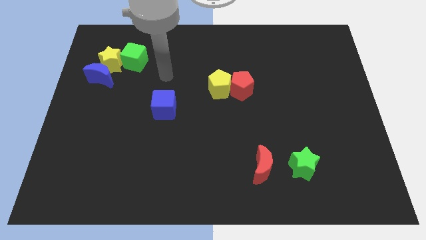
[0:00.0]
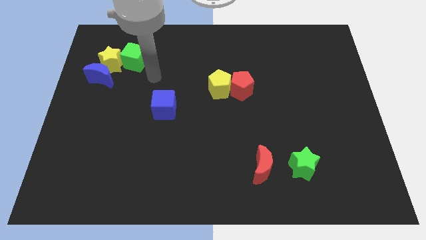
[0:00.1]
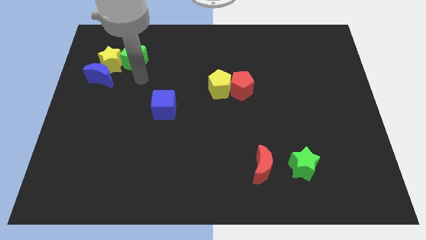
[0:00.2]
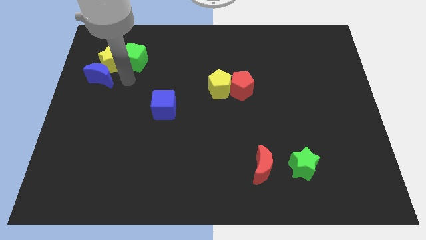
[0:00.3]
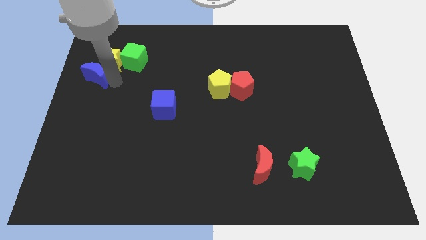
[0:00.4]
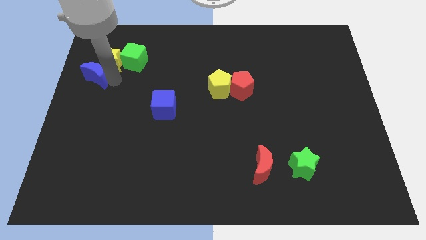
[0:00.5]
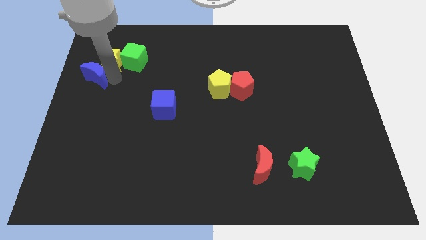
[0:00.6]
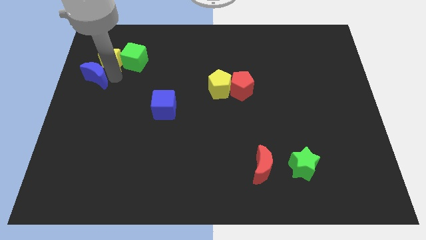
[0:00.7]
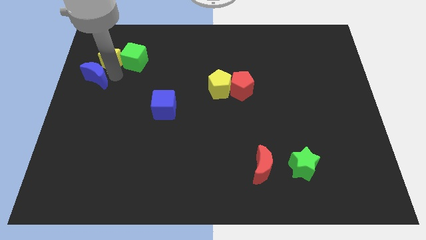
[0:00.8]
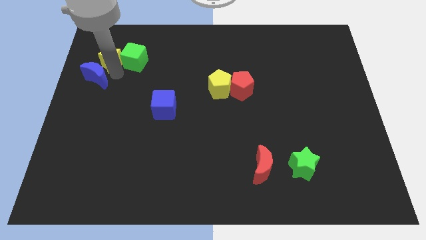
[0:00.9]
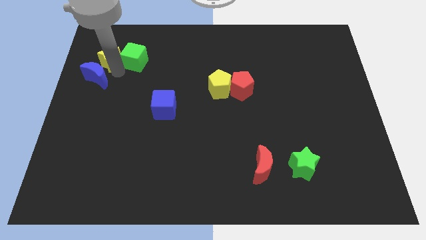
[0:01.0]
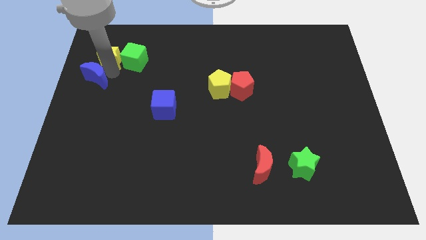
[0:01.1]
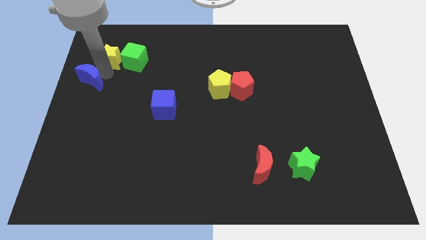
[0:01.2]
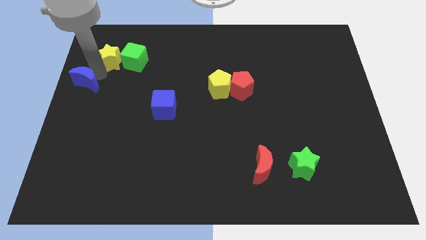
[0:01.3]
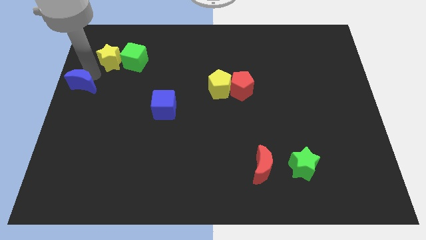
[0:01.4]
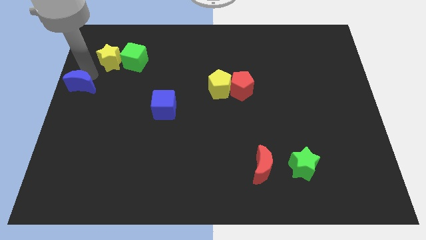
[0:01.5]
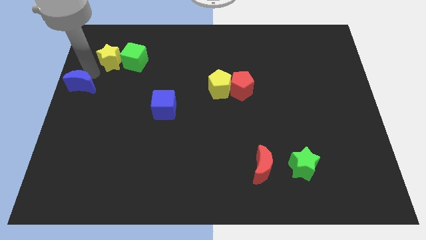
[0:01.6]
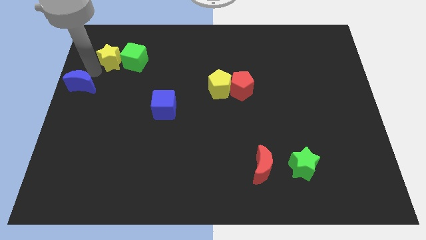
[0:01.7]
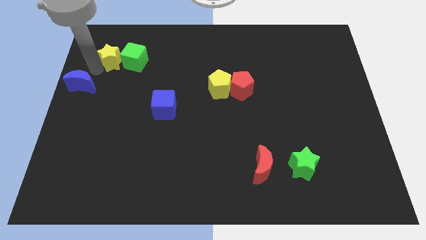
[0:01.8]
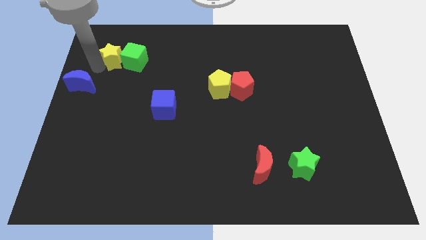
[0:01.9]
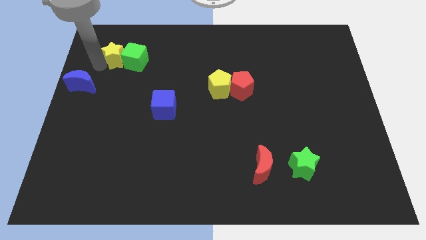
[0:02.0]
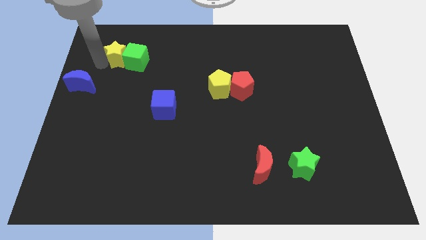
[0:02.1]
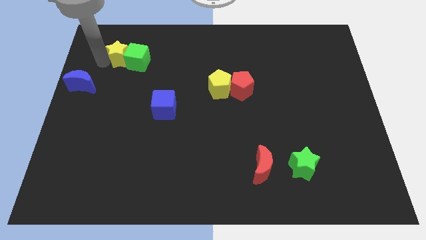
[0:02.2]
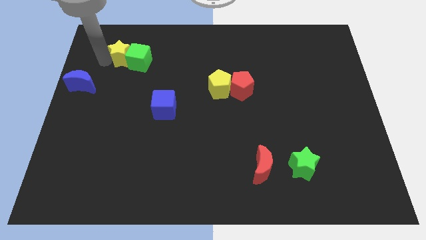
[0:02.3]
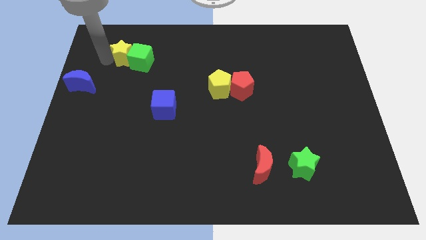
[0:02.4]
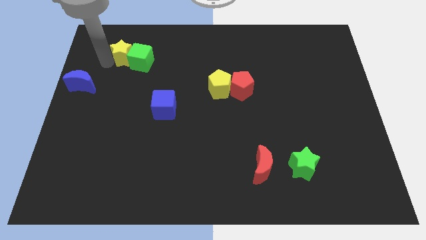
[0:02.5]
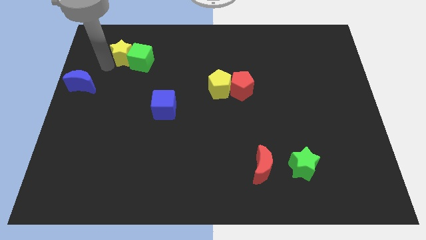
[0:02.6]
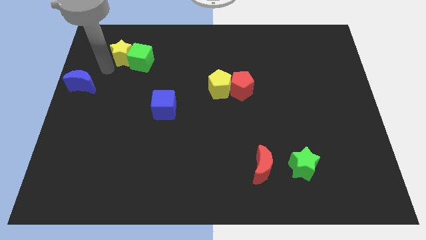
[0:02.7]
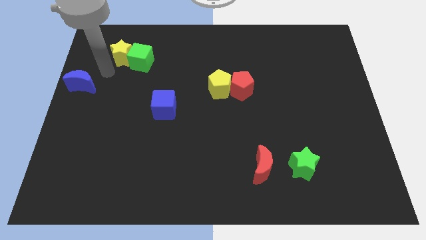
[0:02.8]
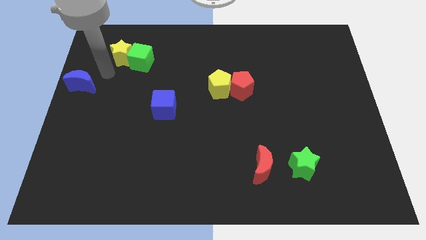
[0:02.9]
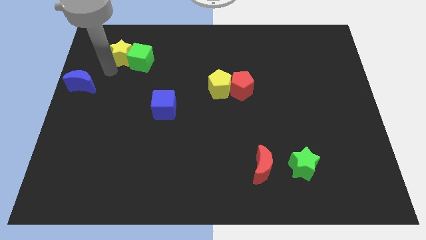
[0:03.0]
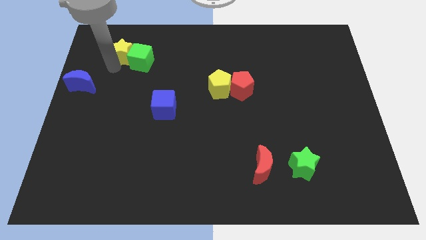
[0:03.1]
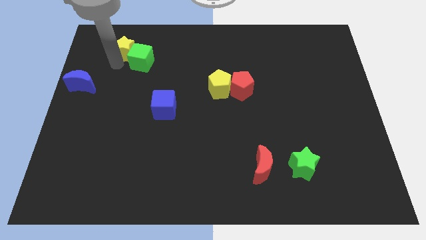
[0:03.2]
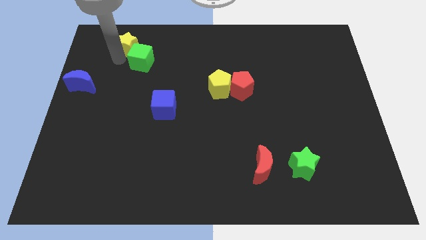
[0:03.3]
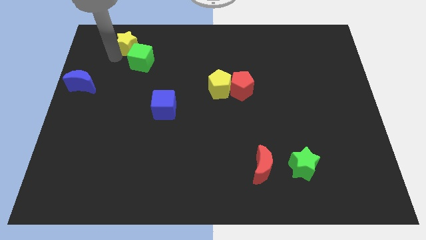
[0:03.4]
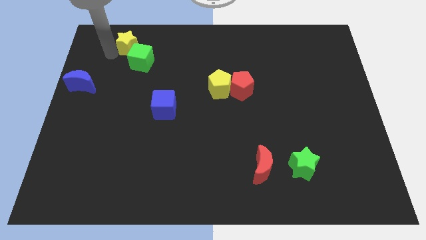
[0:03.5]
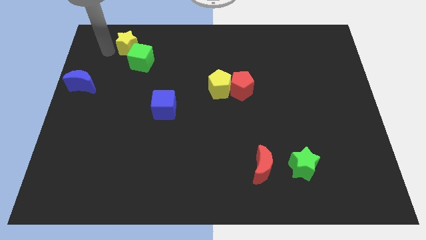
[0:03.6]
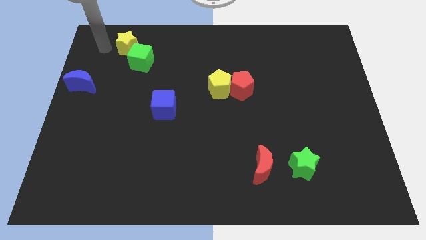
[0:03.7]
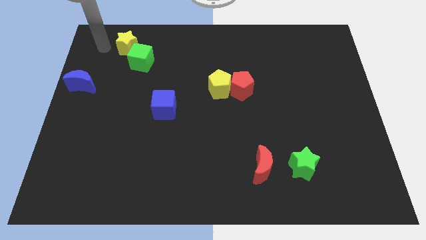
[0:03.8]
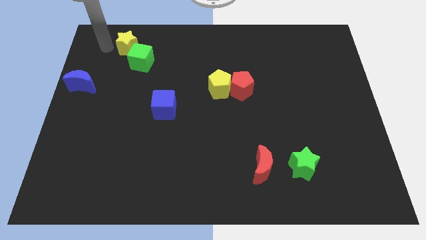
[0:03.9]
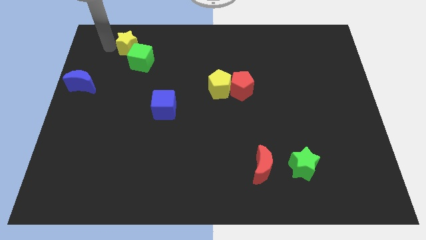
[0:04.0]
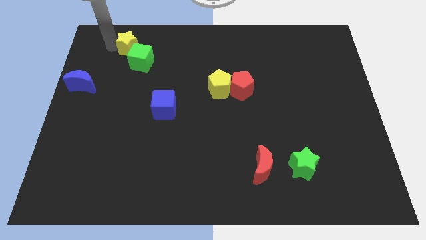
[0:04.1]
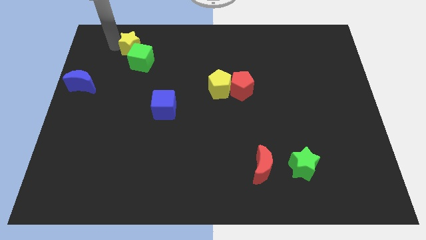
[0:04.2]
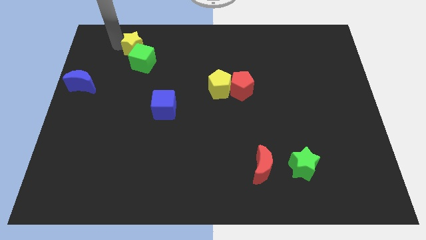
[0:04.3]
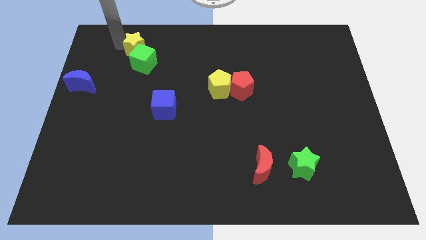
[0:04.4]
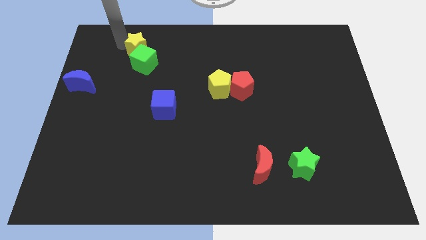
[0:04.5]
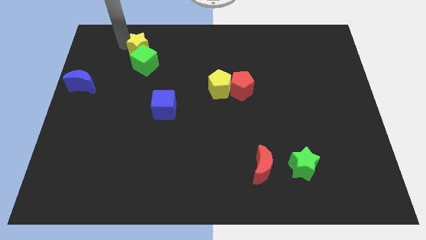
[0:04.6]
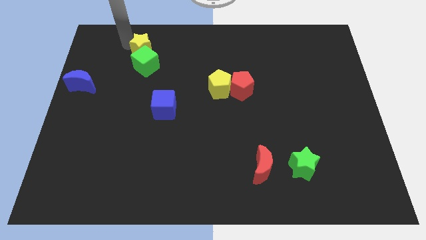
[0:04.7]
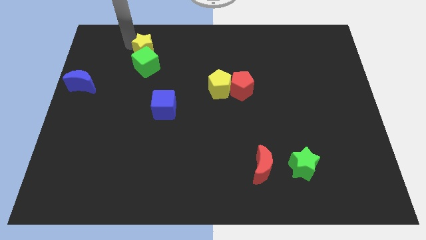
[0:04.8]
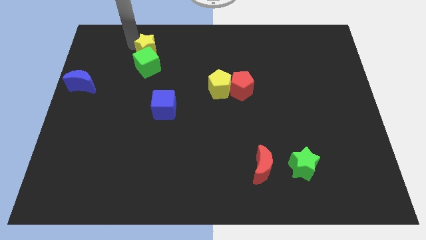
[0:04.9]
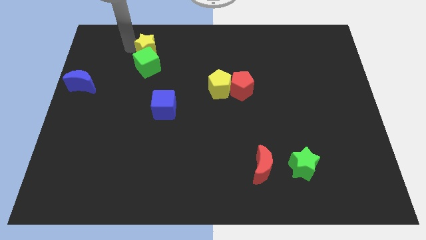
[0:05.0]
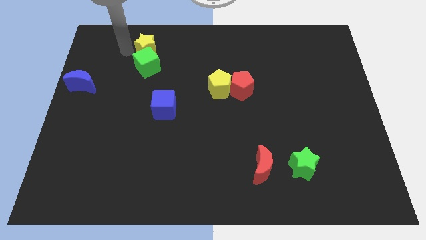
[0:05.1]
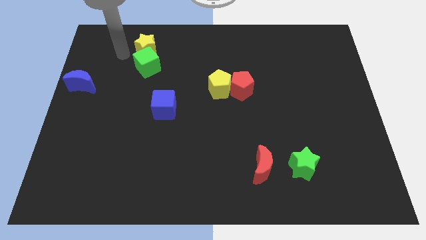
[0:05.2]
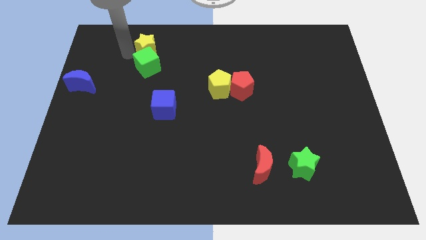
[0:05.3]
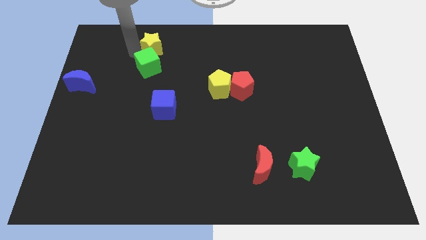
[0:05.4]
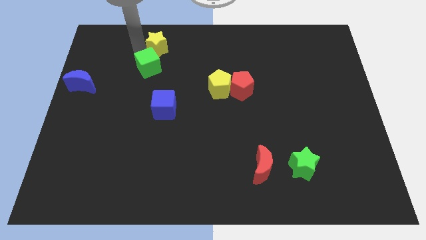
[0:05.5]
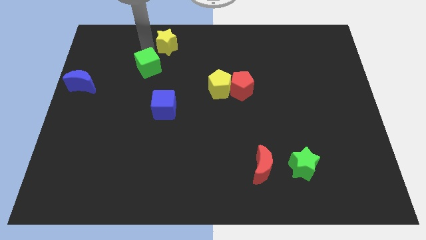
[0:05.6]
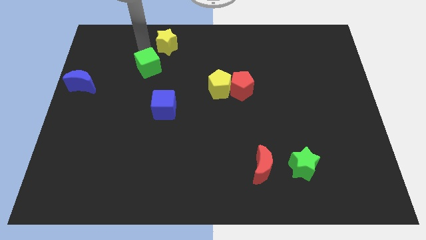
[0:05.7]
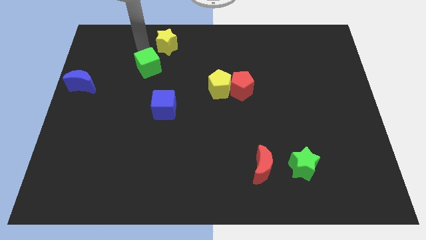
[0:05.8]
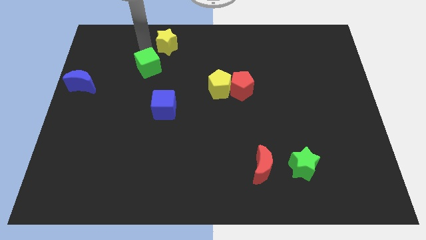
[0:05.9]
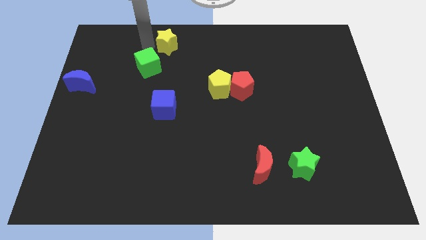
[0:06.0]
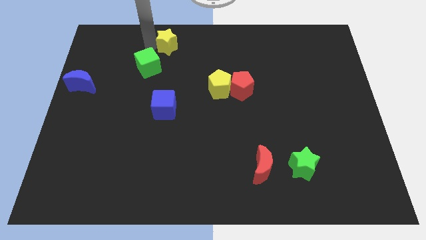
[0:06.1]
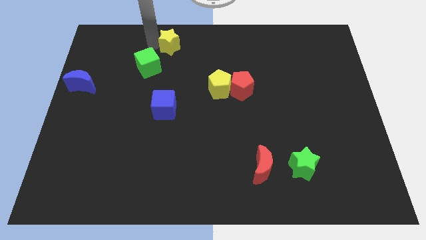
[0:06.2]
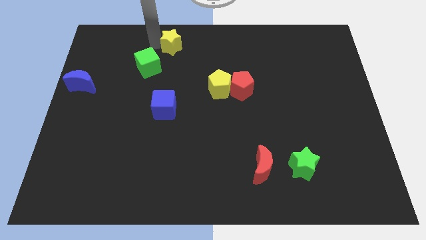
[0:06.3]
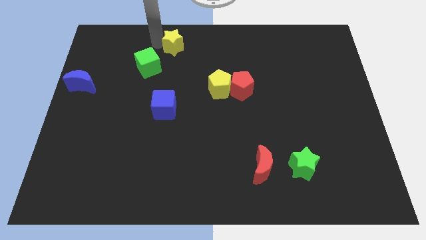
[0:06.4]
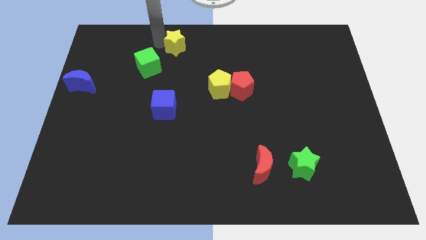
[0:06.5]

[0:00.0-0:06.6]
push the yellow star to the top side

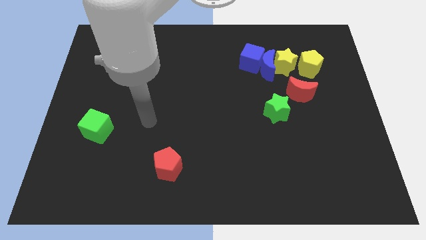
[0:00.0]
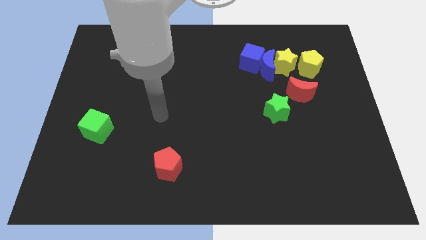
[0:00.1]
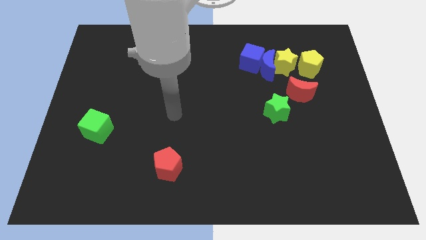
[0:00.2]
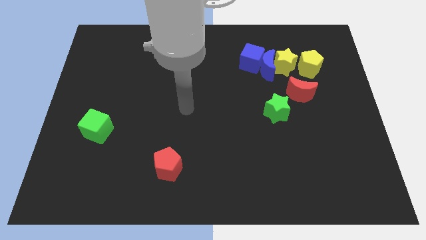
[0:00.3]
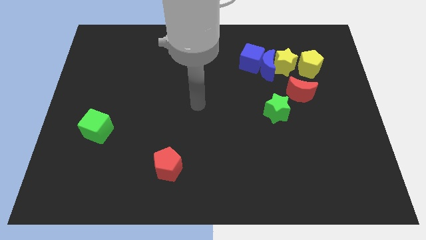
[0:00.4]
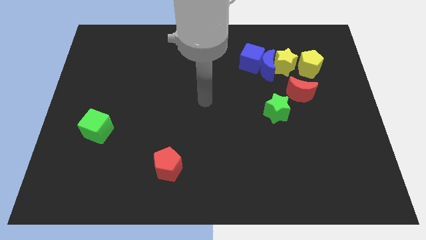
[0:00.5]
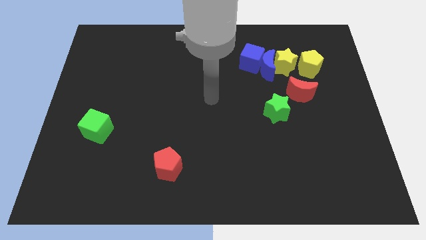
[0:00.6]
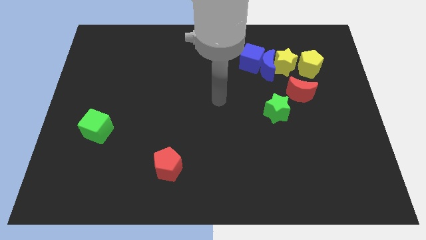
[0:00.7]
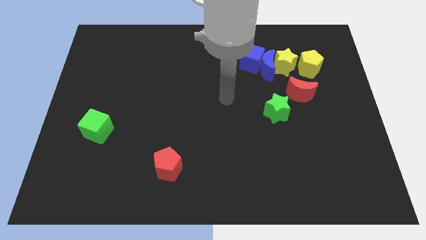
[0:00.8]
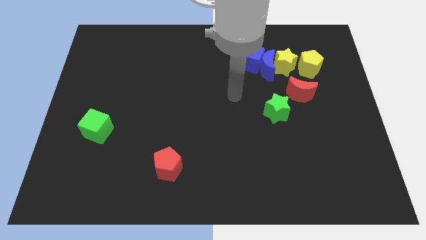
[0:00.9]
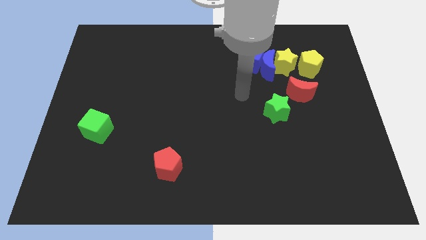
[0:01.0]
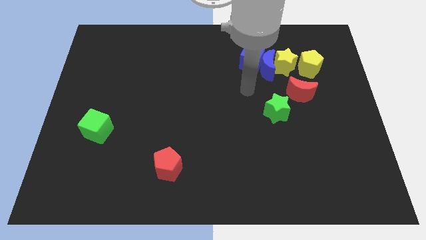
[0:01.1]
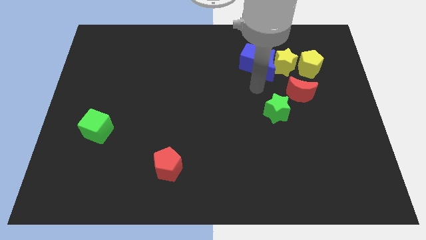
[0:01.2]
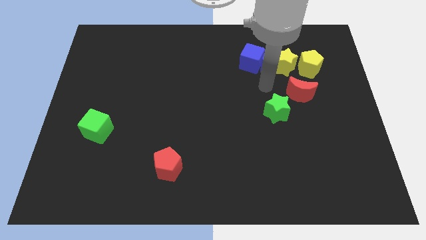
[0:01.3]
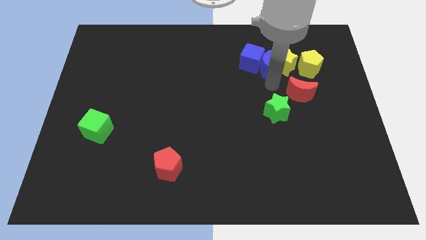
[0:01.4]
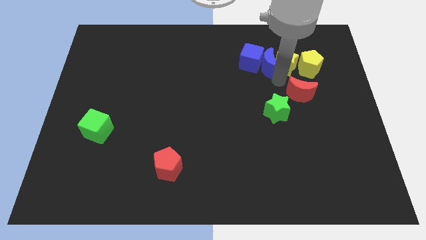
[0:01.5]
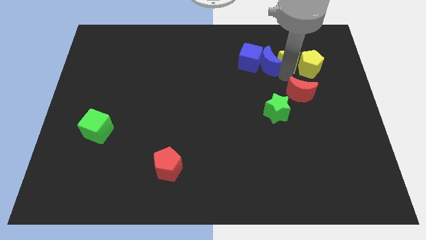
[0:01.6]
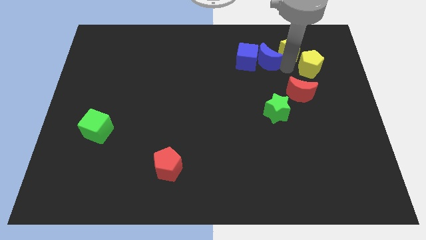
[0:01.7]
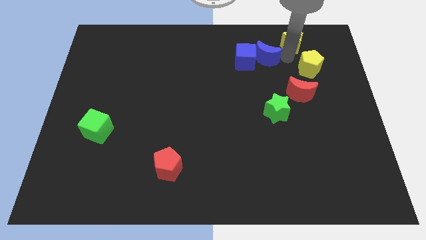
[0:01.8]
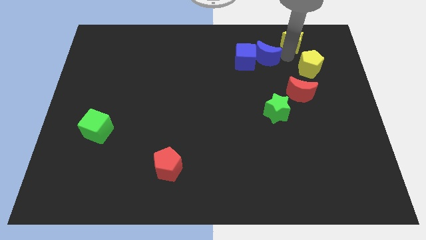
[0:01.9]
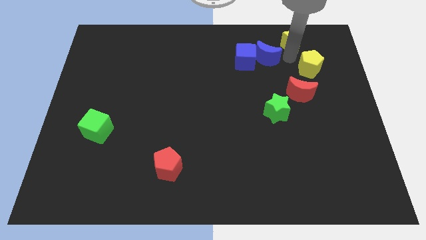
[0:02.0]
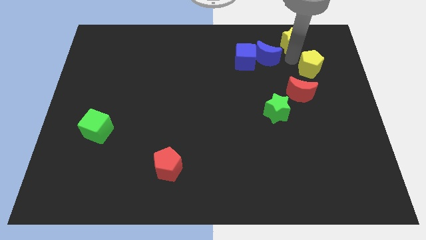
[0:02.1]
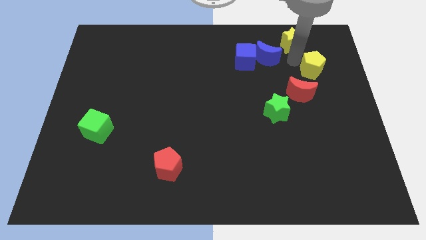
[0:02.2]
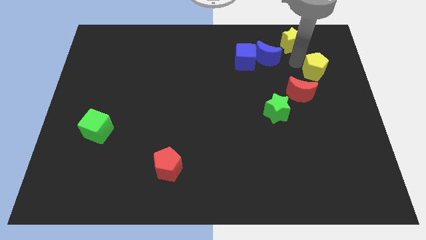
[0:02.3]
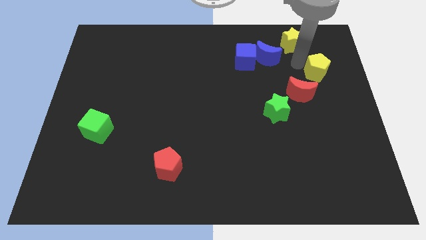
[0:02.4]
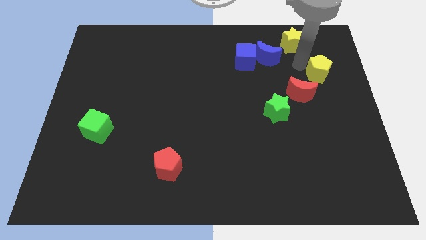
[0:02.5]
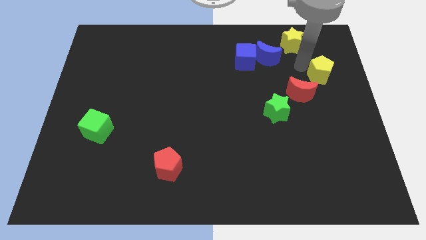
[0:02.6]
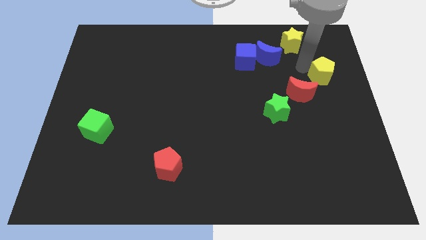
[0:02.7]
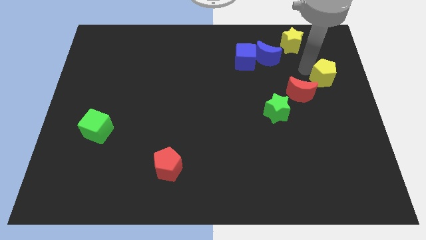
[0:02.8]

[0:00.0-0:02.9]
put the yellow pentagon to the right side
